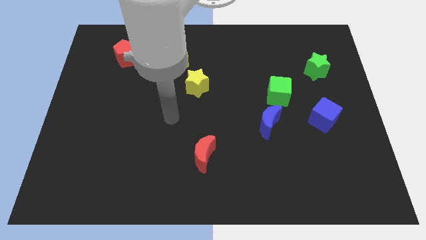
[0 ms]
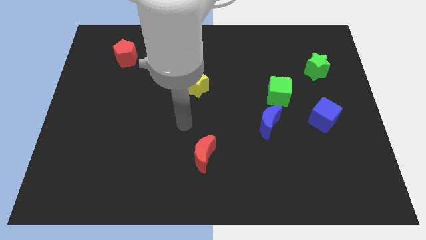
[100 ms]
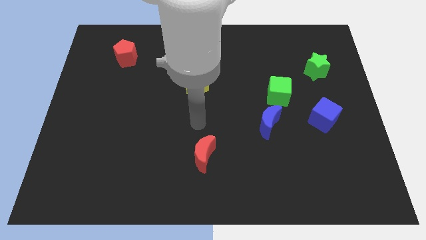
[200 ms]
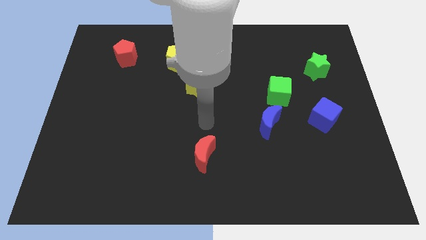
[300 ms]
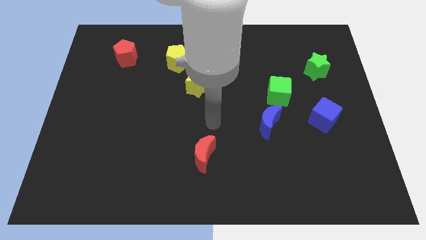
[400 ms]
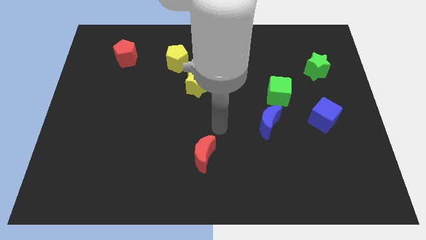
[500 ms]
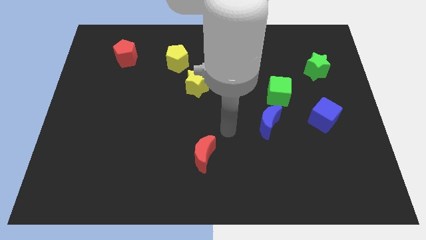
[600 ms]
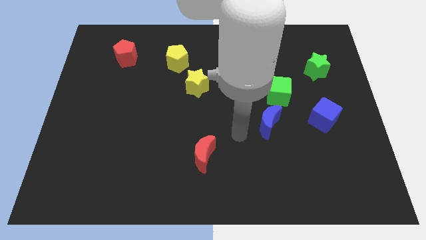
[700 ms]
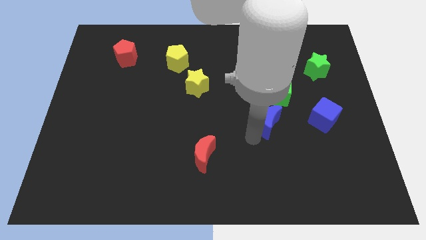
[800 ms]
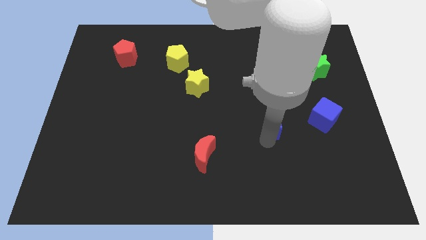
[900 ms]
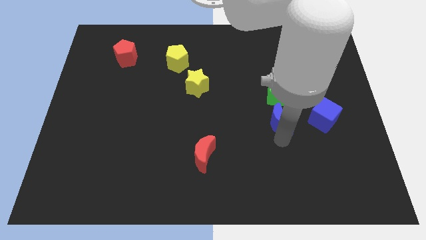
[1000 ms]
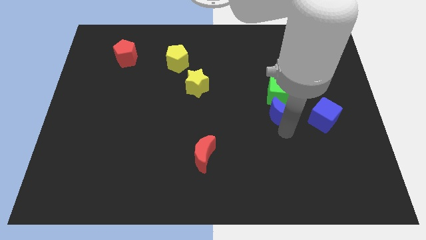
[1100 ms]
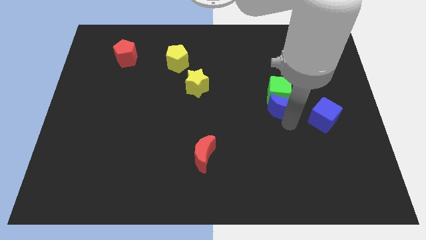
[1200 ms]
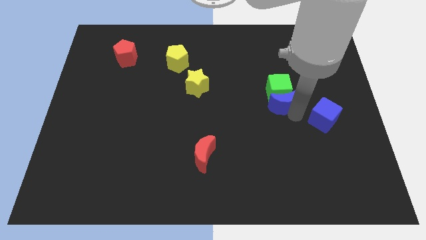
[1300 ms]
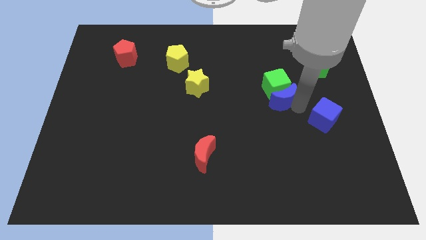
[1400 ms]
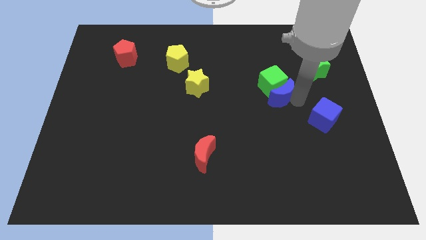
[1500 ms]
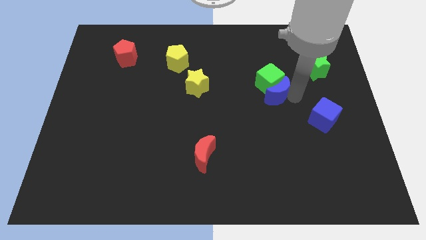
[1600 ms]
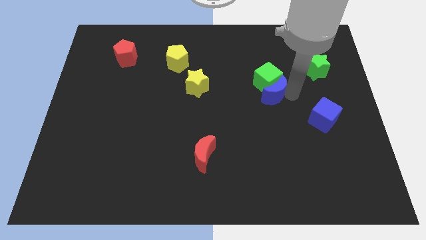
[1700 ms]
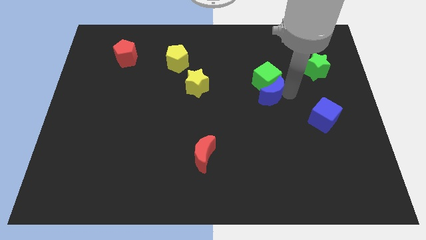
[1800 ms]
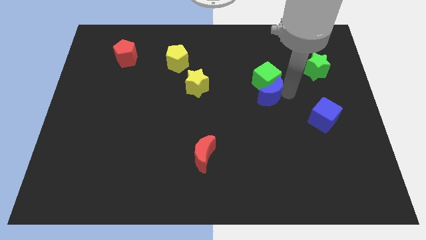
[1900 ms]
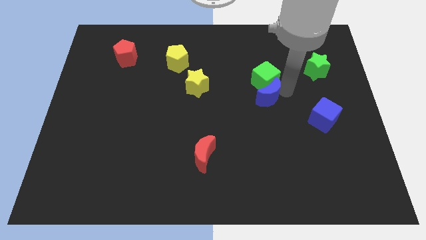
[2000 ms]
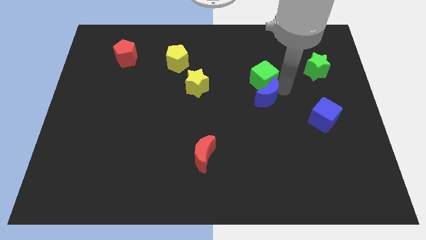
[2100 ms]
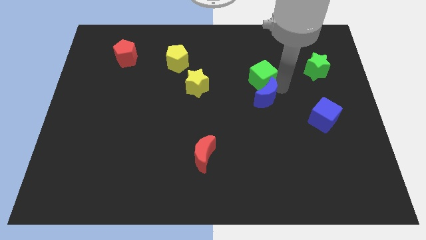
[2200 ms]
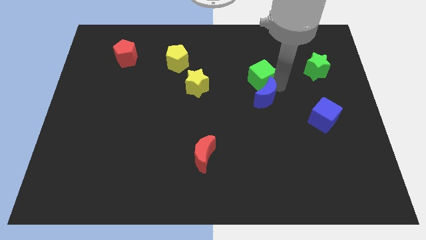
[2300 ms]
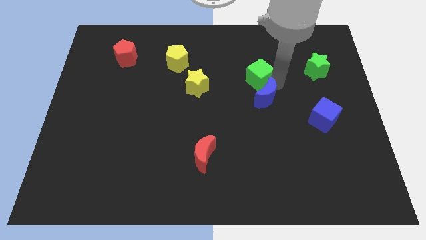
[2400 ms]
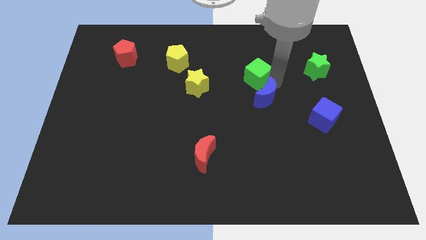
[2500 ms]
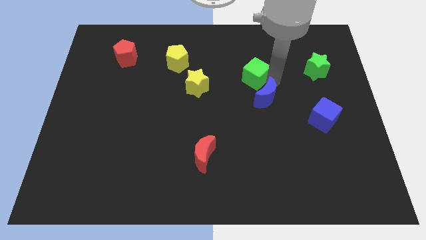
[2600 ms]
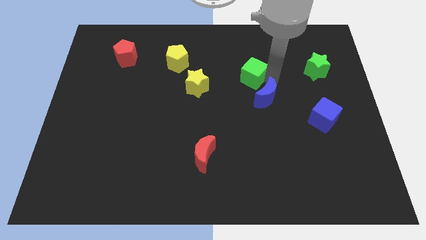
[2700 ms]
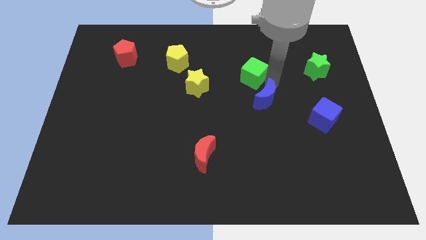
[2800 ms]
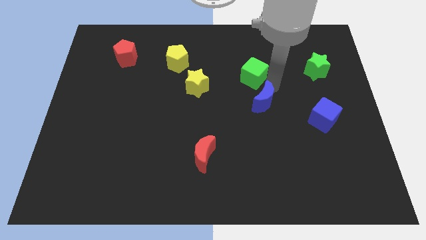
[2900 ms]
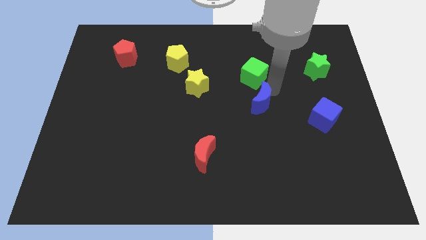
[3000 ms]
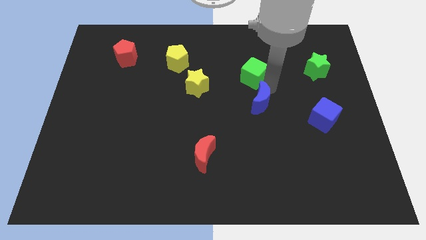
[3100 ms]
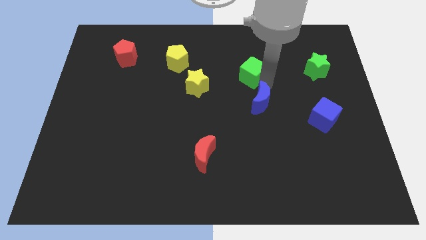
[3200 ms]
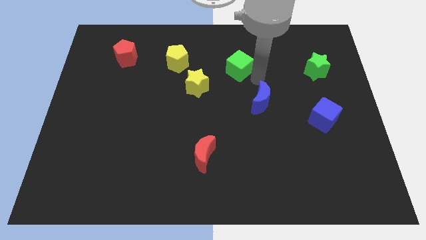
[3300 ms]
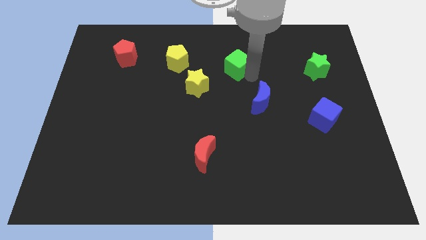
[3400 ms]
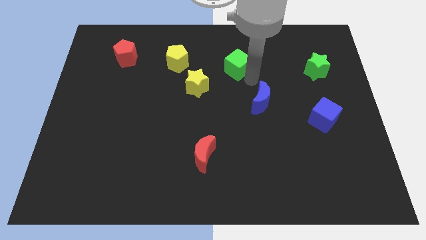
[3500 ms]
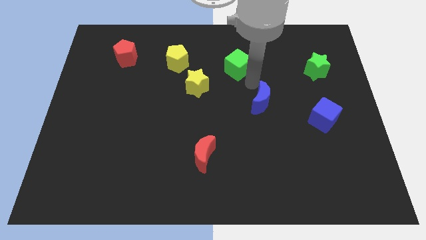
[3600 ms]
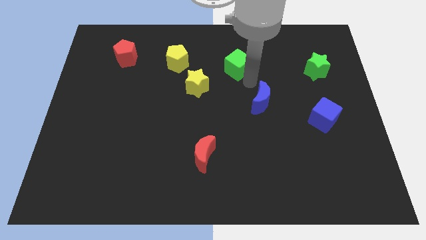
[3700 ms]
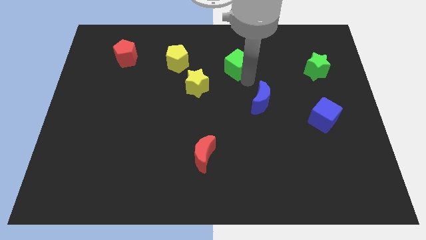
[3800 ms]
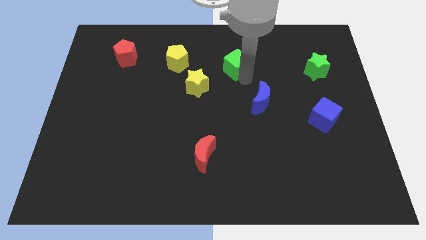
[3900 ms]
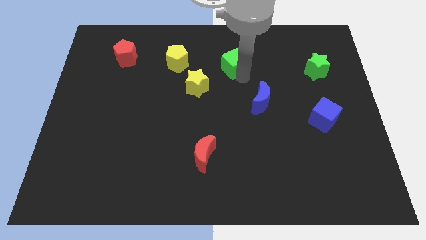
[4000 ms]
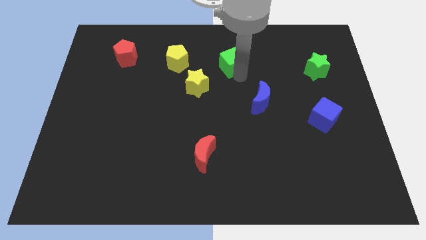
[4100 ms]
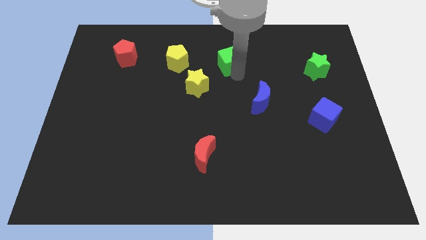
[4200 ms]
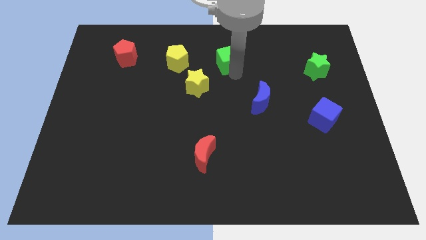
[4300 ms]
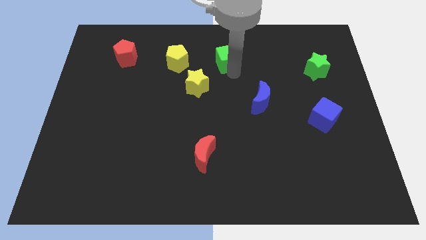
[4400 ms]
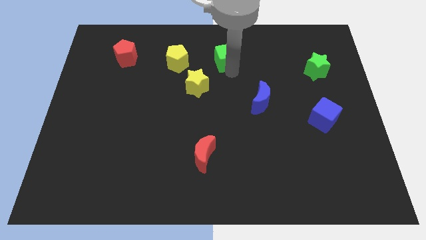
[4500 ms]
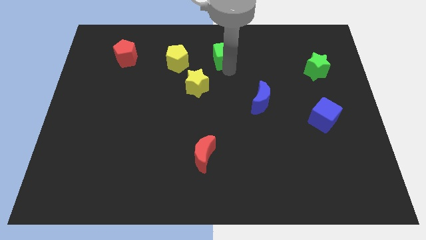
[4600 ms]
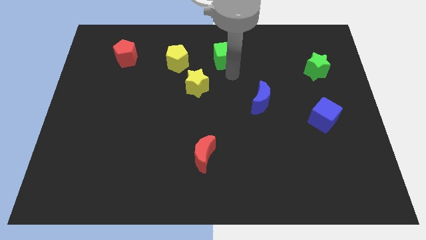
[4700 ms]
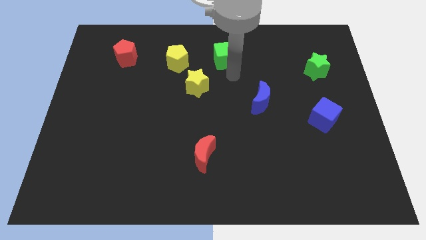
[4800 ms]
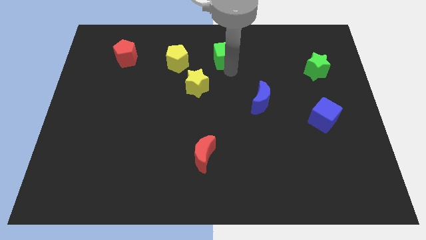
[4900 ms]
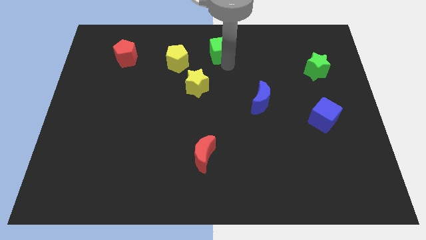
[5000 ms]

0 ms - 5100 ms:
push the green cube to the towards your base
